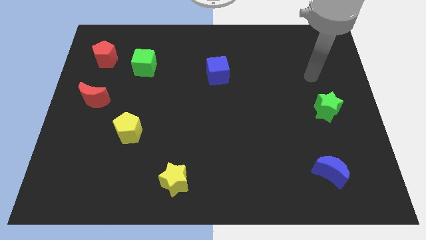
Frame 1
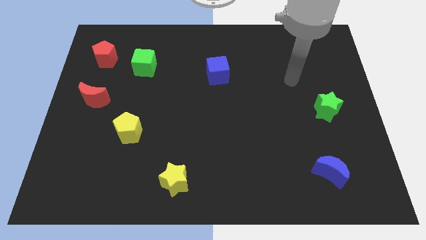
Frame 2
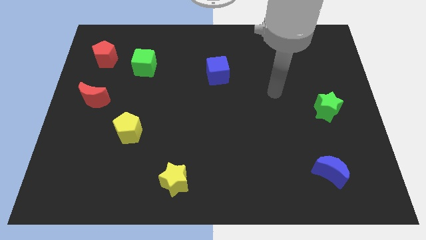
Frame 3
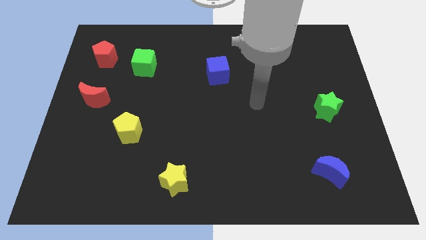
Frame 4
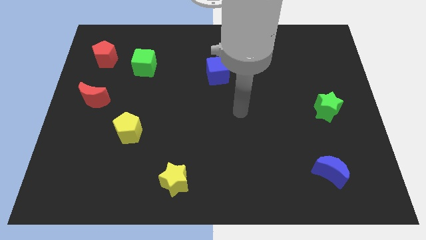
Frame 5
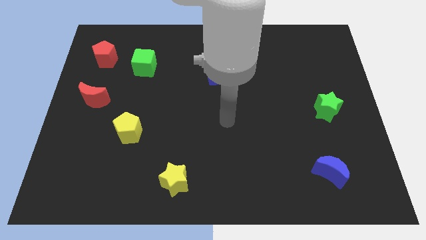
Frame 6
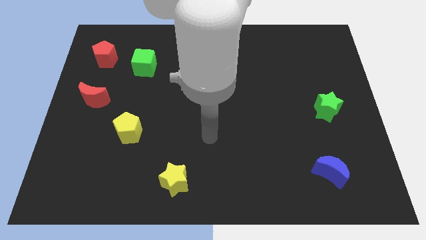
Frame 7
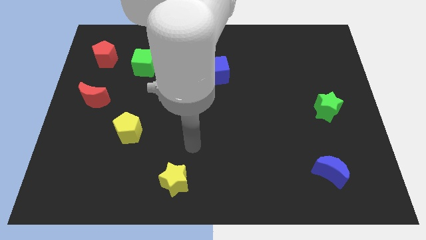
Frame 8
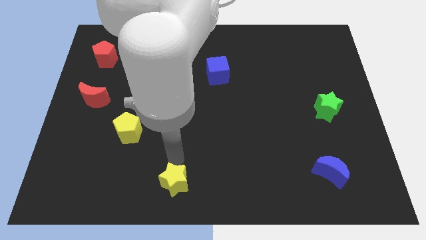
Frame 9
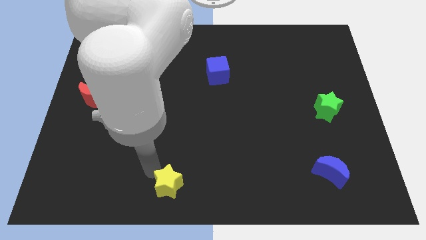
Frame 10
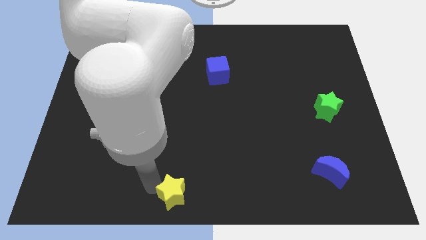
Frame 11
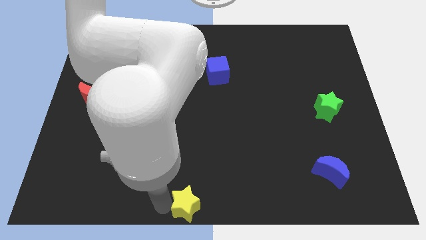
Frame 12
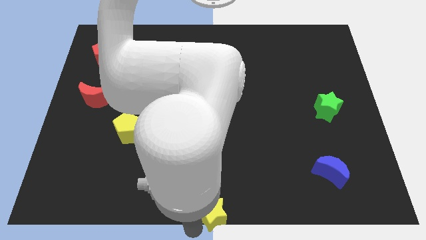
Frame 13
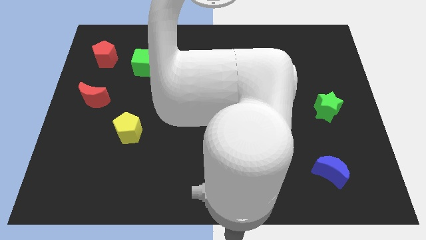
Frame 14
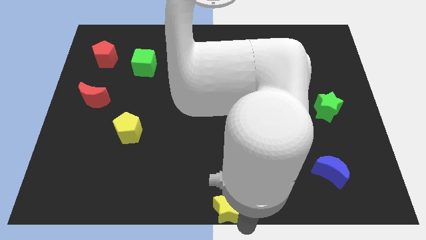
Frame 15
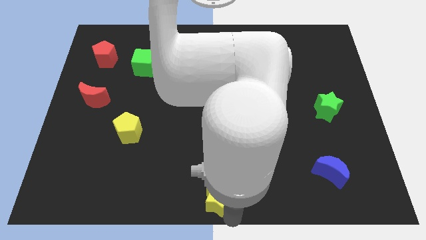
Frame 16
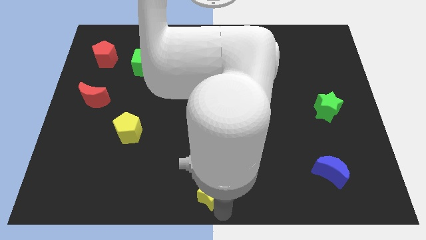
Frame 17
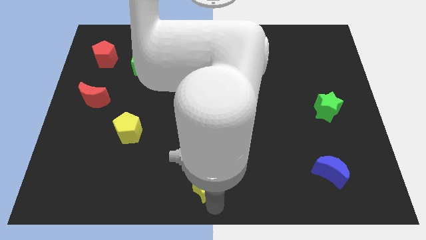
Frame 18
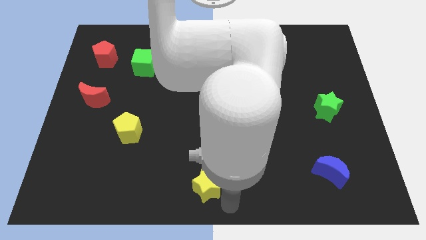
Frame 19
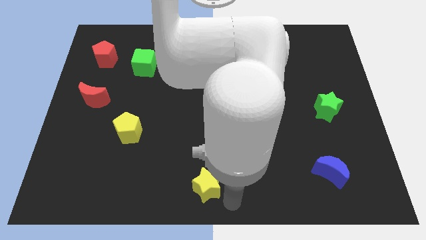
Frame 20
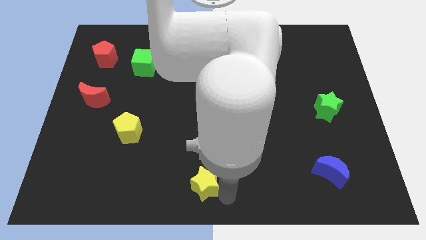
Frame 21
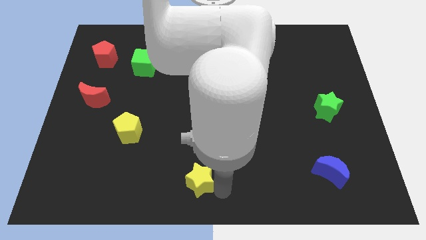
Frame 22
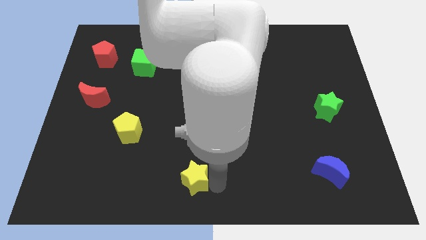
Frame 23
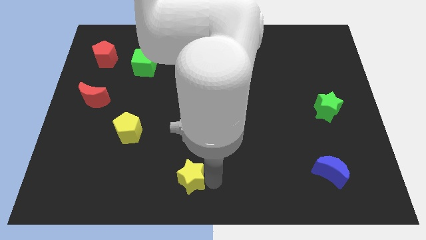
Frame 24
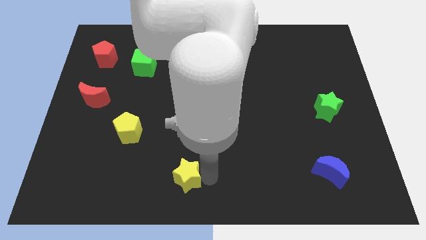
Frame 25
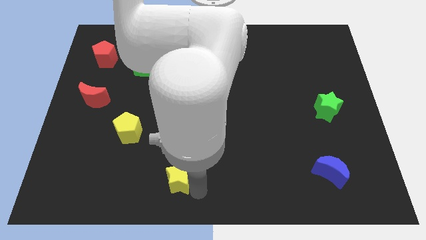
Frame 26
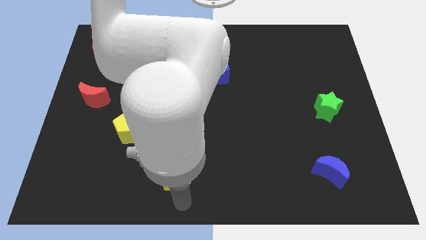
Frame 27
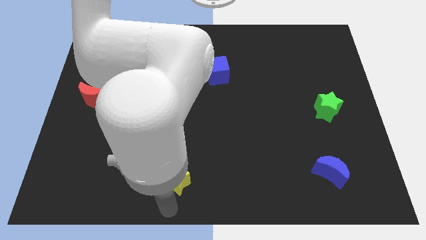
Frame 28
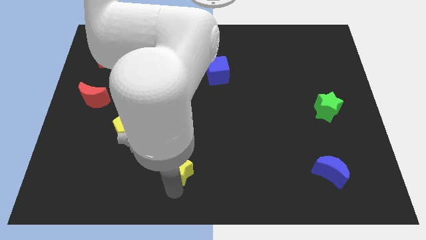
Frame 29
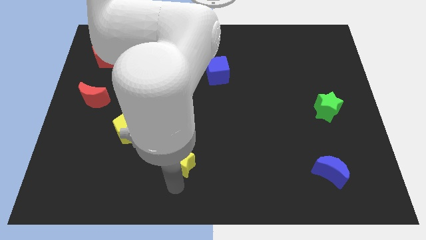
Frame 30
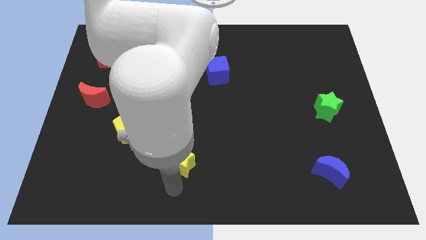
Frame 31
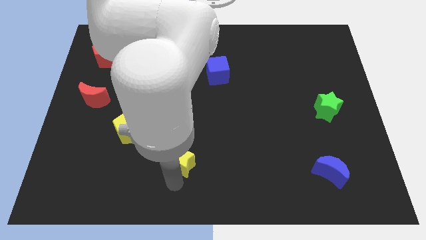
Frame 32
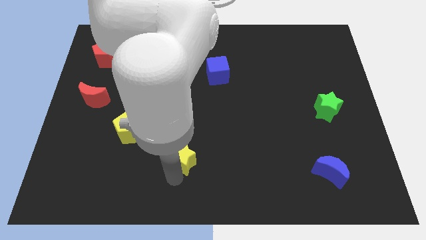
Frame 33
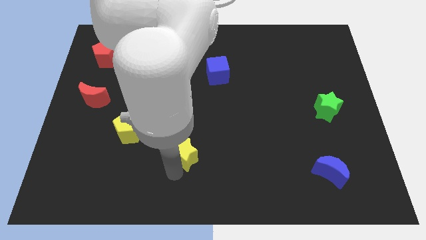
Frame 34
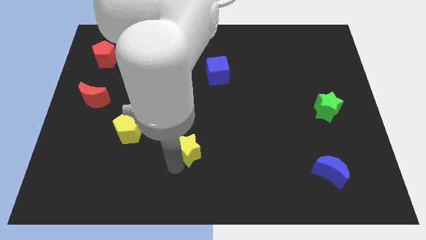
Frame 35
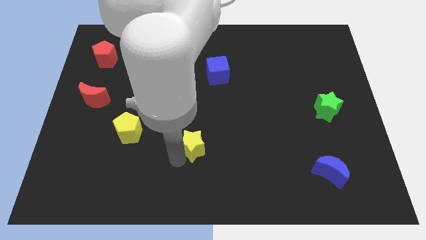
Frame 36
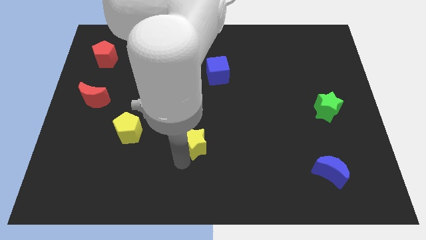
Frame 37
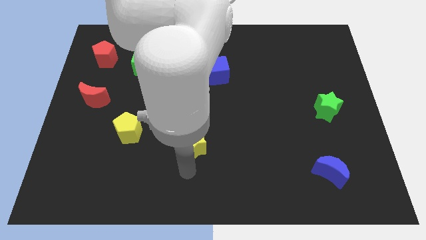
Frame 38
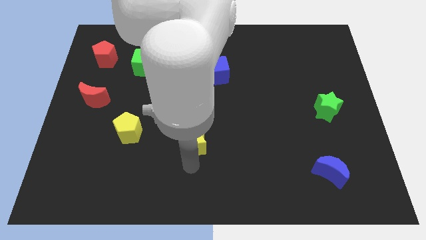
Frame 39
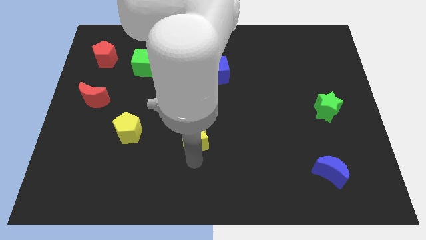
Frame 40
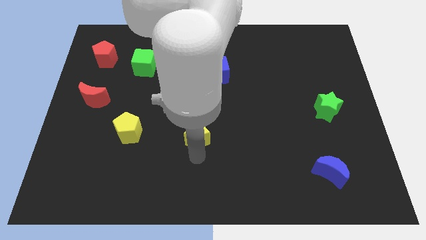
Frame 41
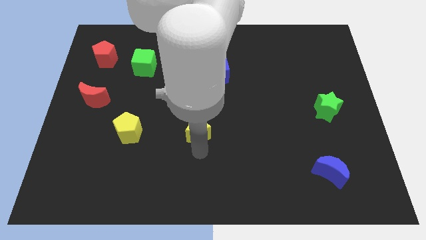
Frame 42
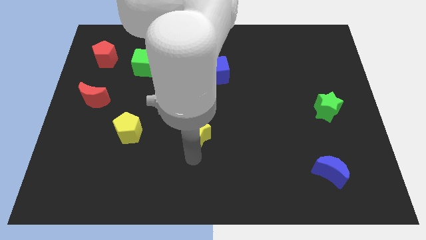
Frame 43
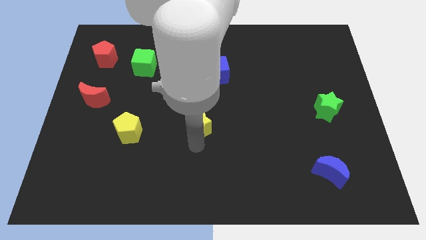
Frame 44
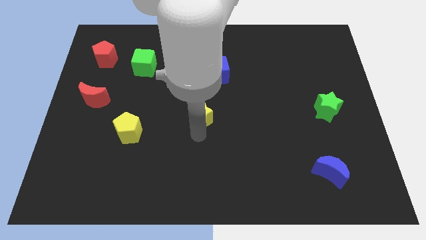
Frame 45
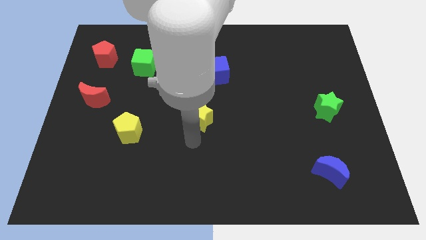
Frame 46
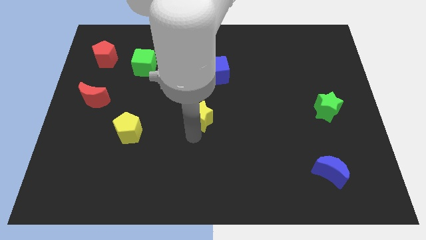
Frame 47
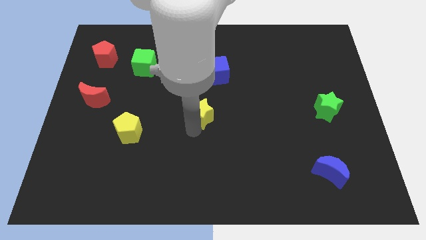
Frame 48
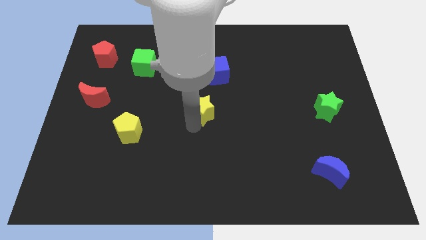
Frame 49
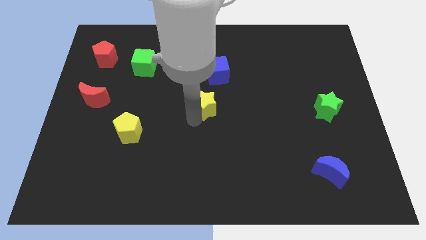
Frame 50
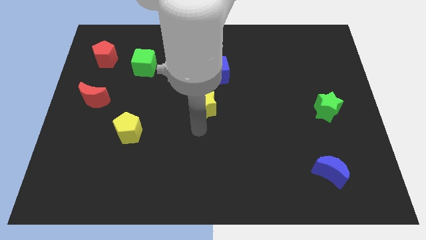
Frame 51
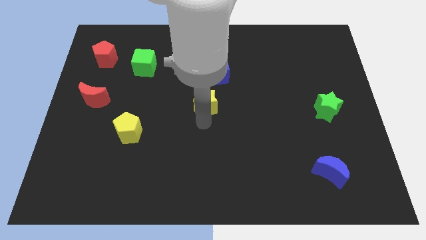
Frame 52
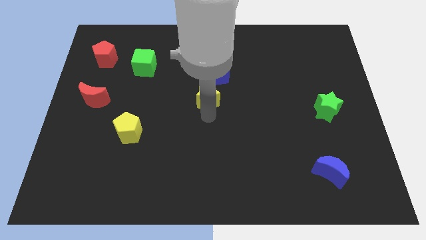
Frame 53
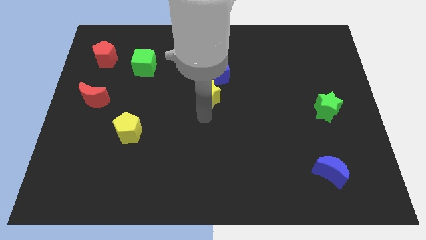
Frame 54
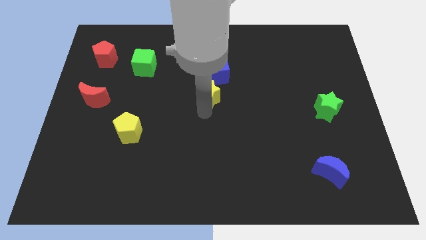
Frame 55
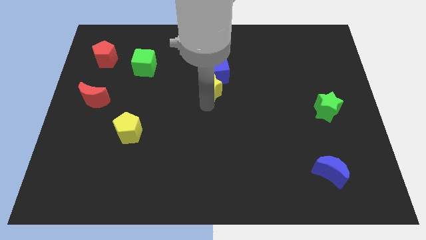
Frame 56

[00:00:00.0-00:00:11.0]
move the yellow star to the blue cube

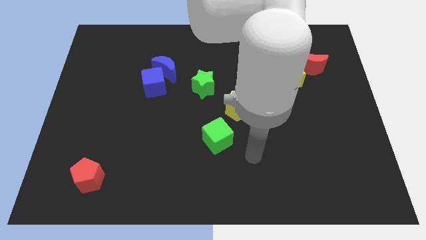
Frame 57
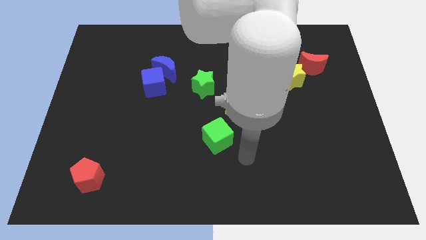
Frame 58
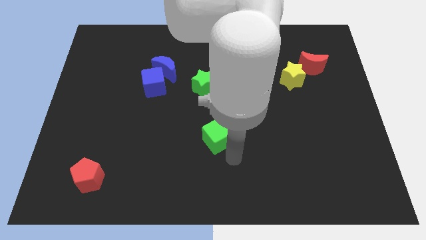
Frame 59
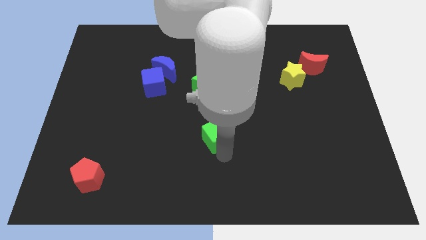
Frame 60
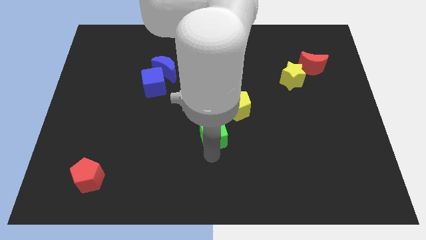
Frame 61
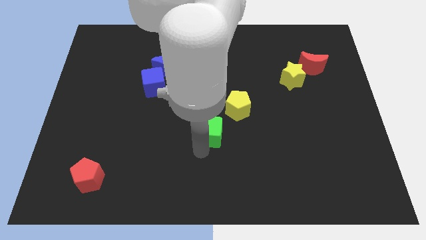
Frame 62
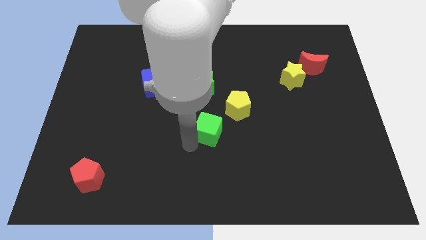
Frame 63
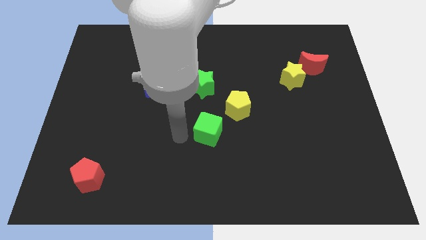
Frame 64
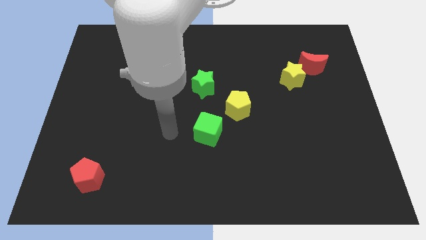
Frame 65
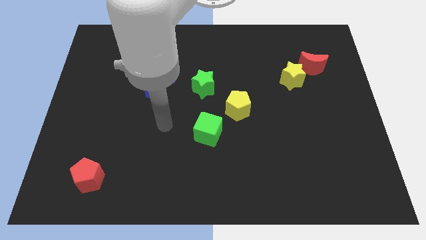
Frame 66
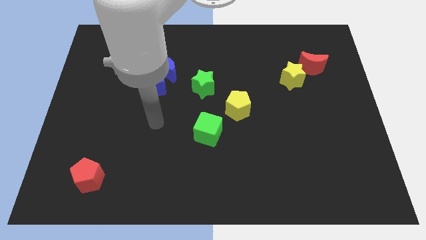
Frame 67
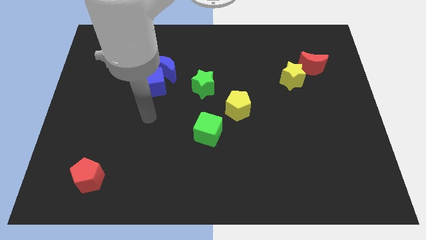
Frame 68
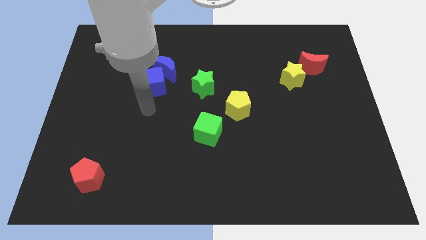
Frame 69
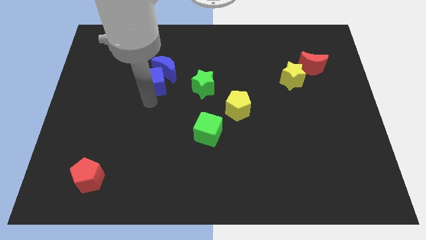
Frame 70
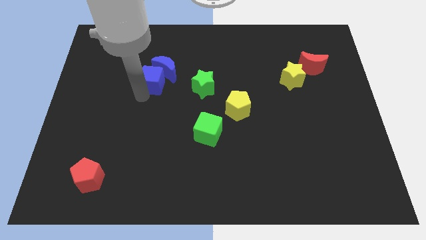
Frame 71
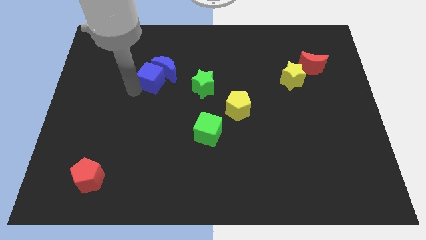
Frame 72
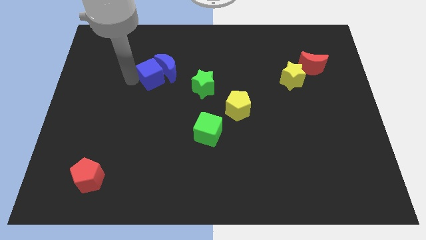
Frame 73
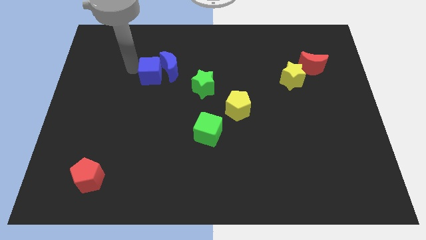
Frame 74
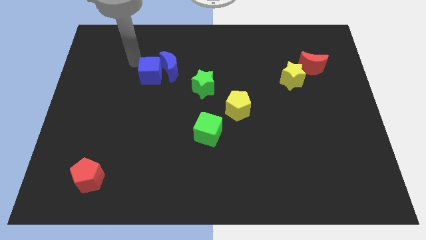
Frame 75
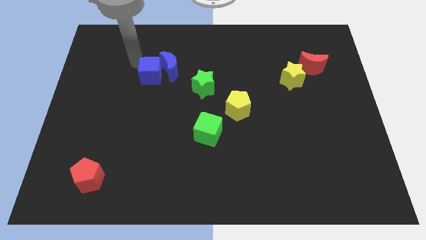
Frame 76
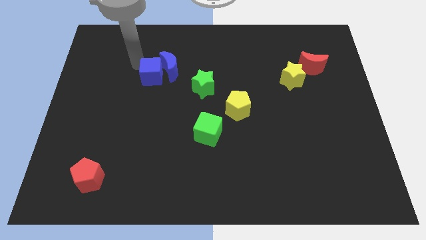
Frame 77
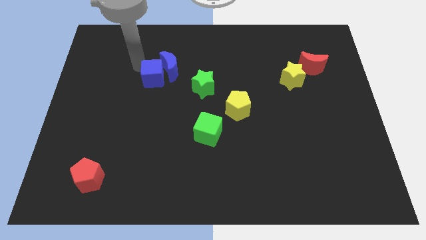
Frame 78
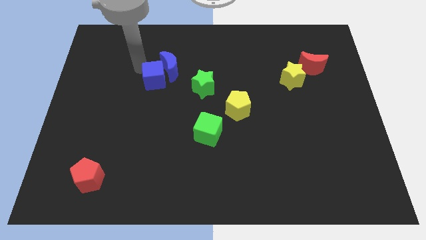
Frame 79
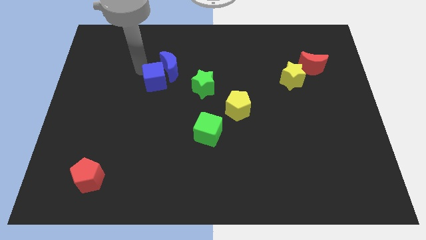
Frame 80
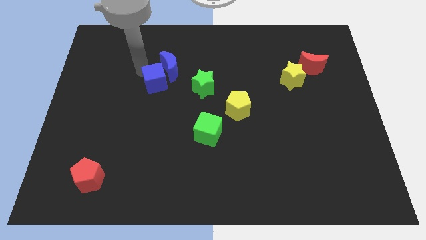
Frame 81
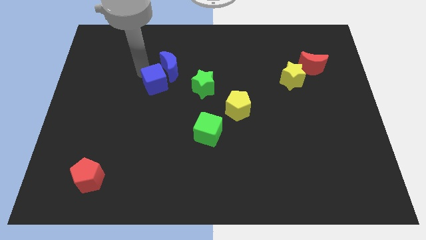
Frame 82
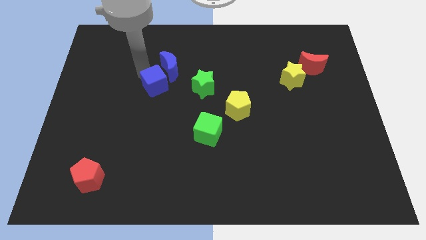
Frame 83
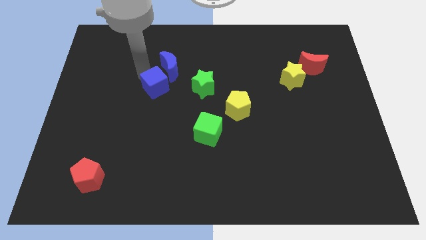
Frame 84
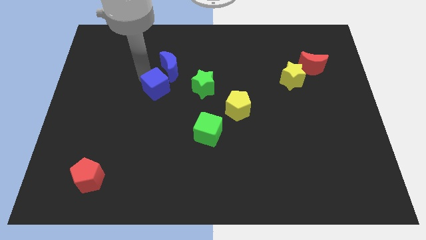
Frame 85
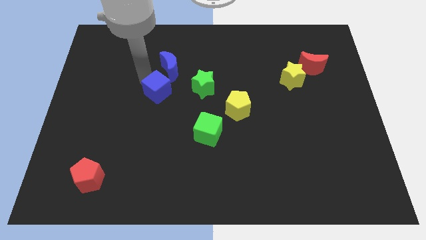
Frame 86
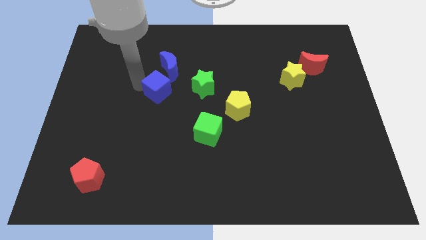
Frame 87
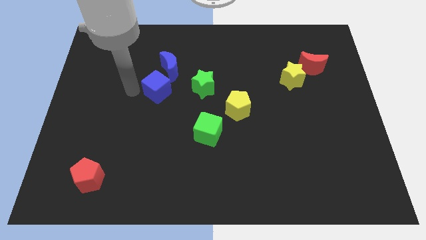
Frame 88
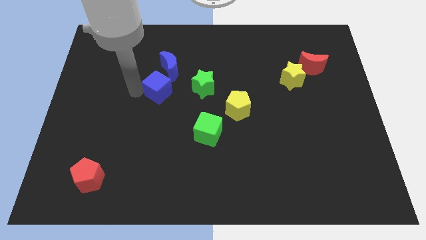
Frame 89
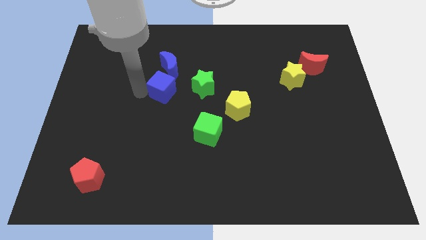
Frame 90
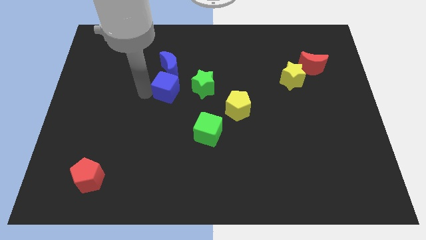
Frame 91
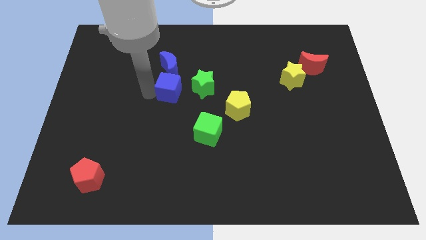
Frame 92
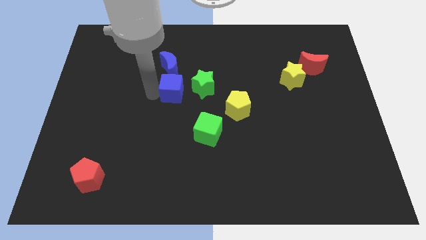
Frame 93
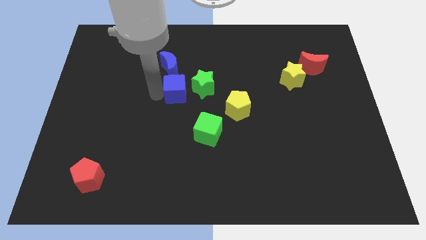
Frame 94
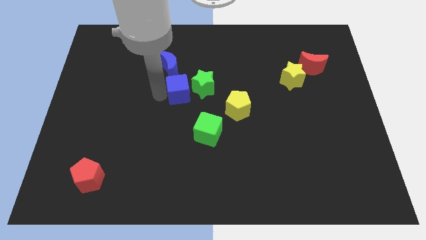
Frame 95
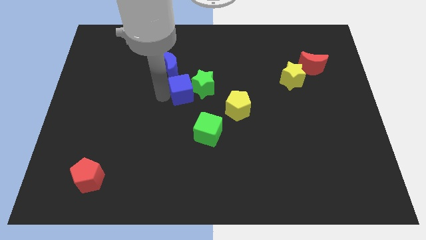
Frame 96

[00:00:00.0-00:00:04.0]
move the blue cube to the green star
